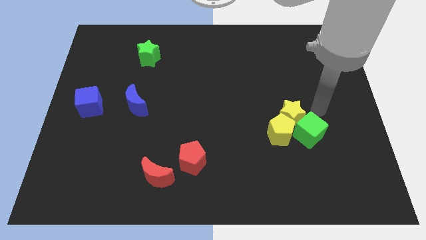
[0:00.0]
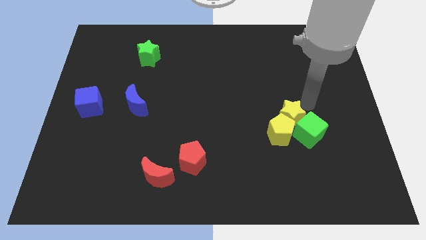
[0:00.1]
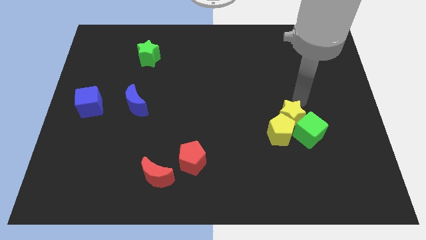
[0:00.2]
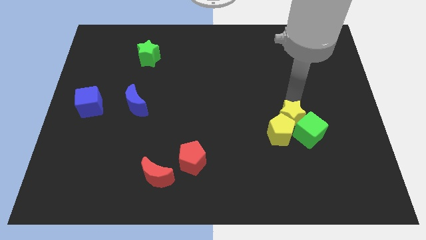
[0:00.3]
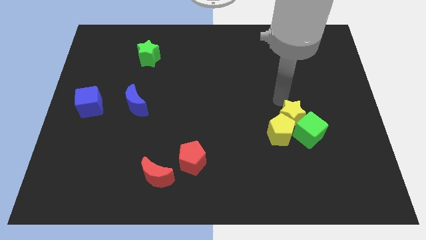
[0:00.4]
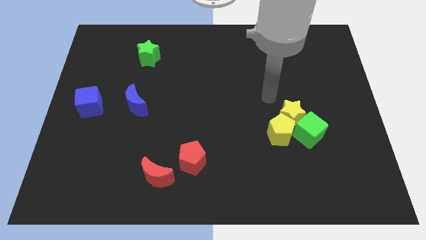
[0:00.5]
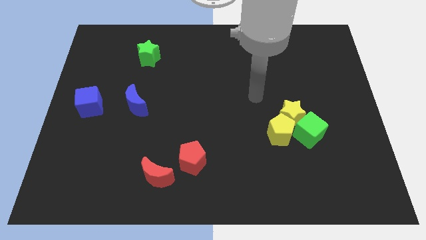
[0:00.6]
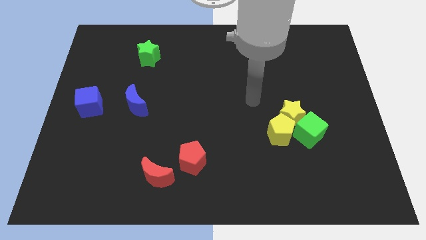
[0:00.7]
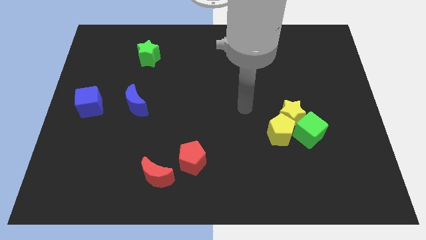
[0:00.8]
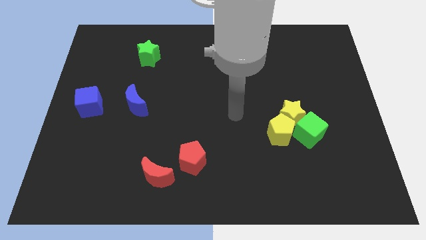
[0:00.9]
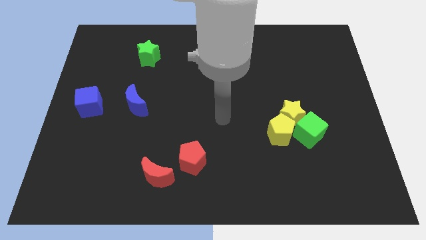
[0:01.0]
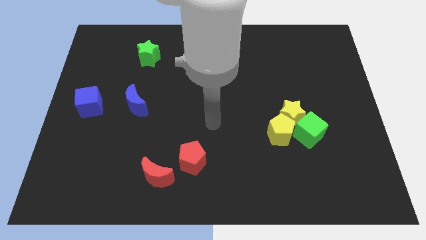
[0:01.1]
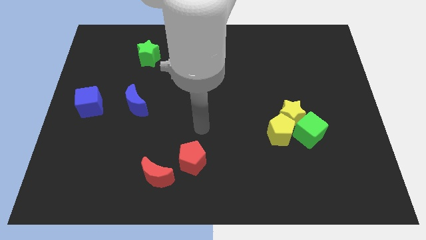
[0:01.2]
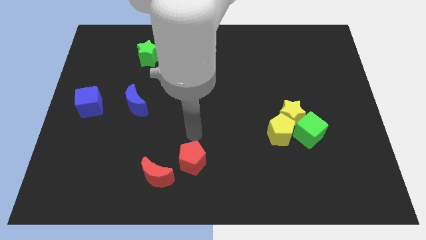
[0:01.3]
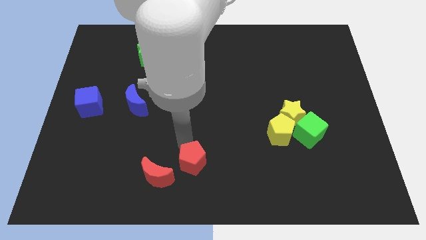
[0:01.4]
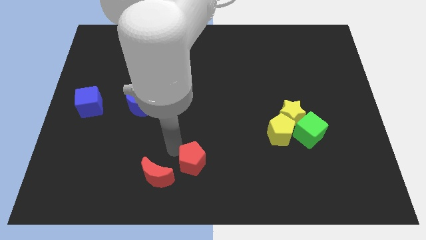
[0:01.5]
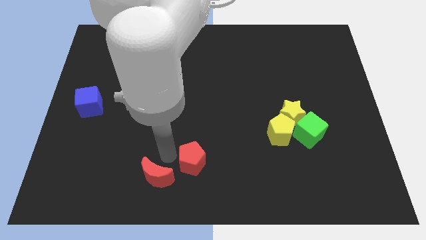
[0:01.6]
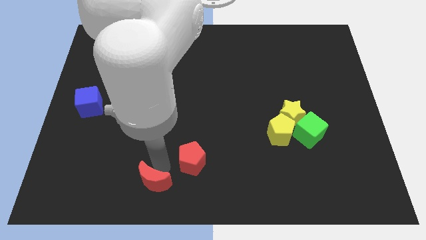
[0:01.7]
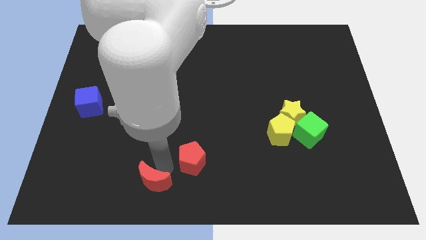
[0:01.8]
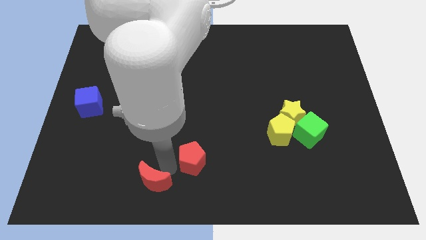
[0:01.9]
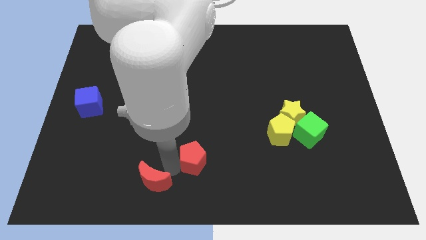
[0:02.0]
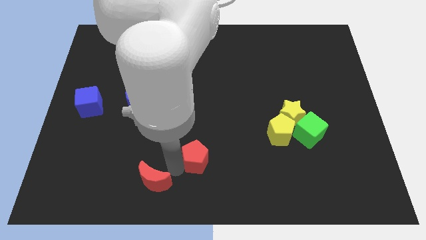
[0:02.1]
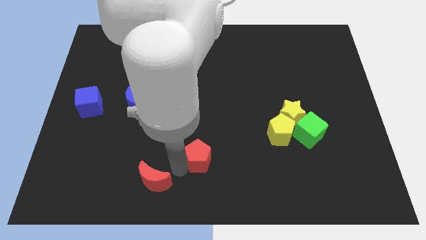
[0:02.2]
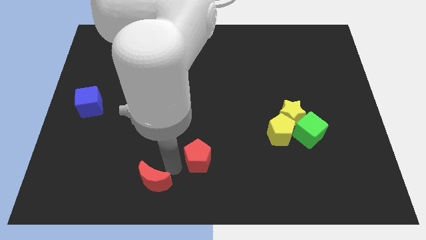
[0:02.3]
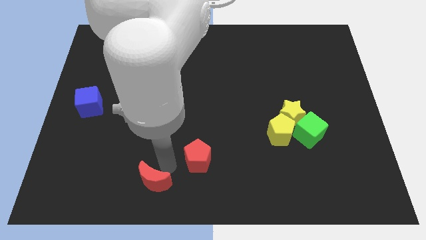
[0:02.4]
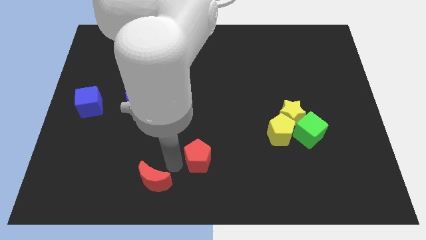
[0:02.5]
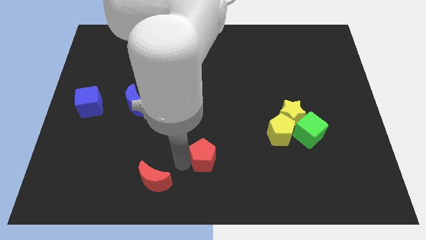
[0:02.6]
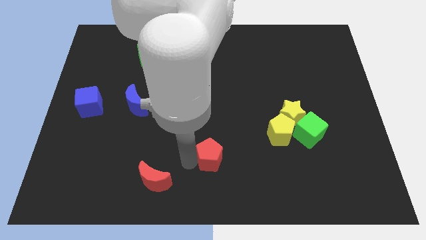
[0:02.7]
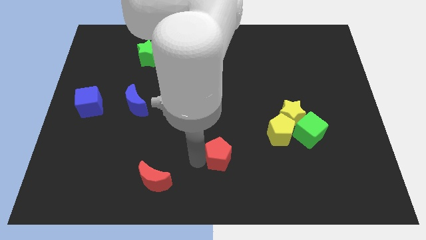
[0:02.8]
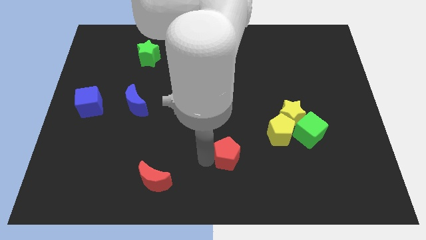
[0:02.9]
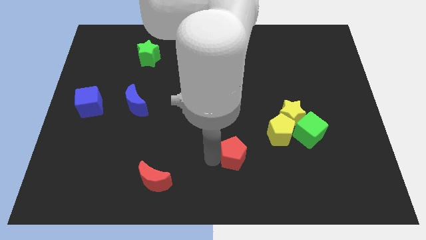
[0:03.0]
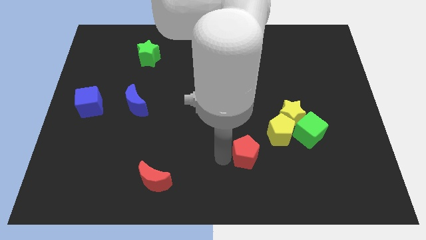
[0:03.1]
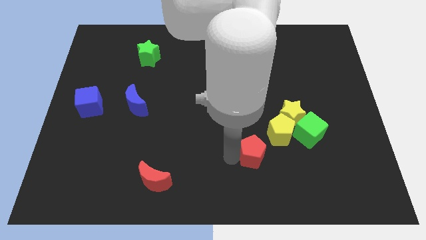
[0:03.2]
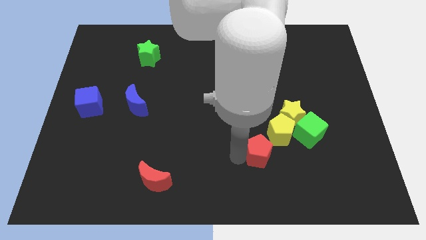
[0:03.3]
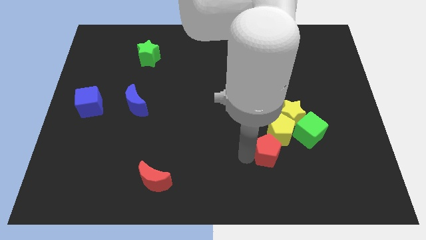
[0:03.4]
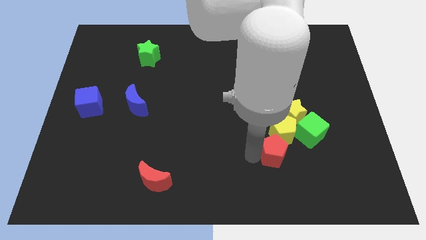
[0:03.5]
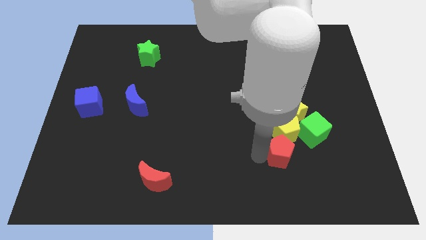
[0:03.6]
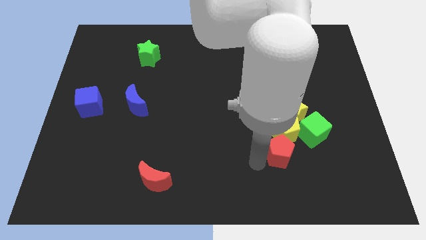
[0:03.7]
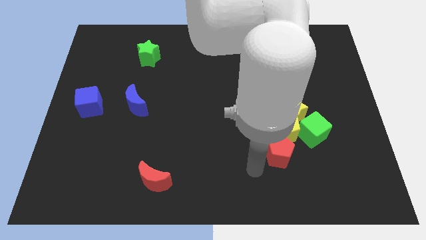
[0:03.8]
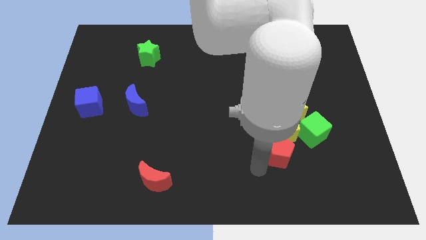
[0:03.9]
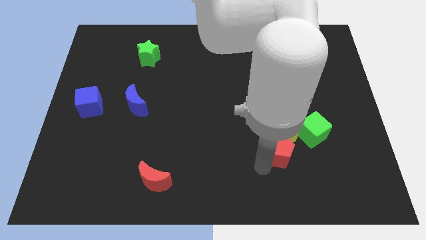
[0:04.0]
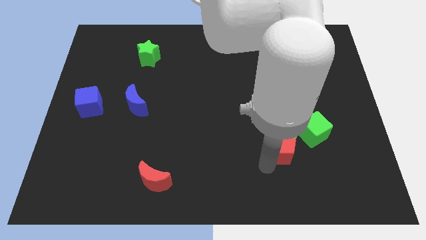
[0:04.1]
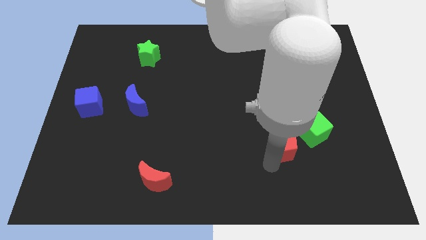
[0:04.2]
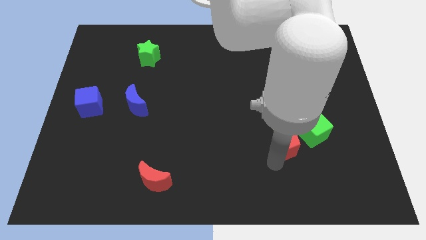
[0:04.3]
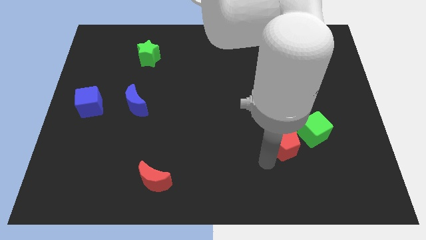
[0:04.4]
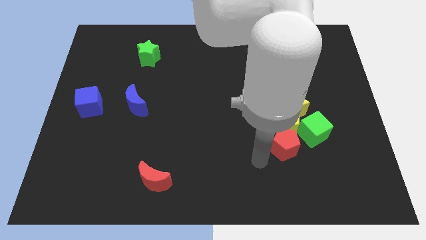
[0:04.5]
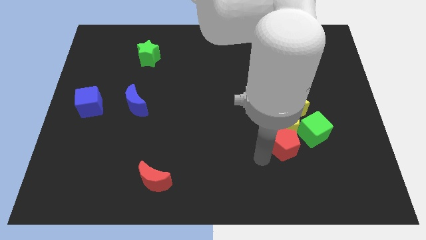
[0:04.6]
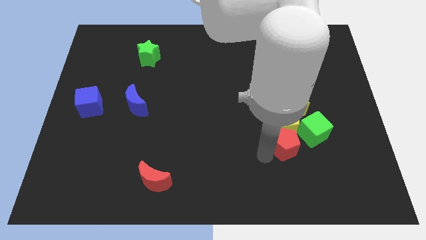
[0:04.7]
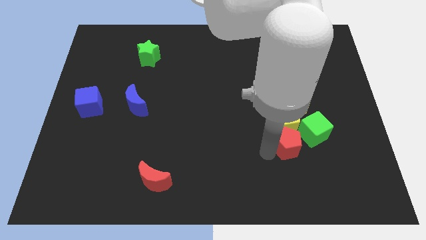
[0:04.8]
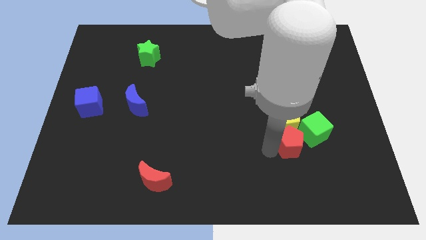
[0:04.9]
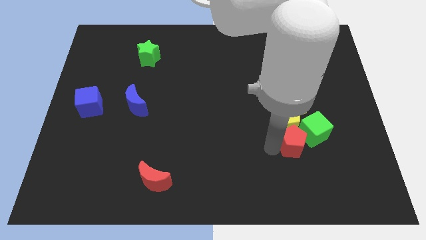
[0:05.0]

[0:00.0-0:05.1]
put the red pentagon to the green cube

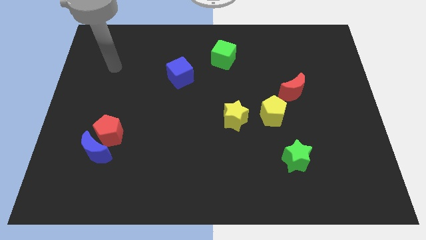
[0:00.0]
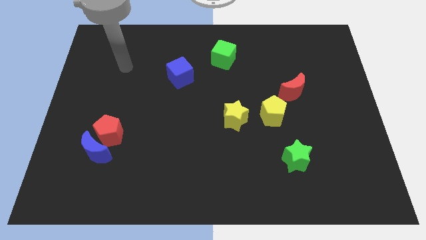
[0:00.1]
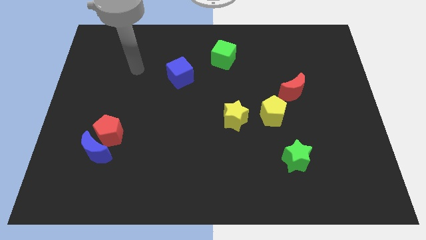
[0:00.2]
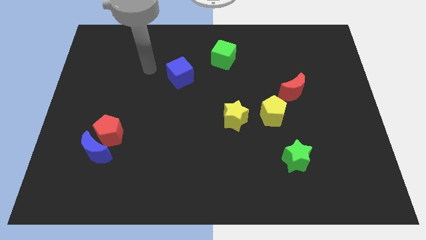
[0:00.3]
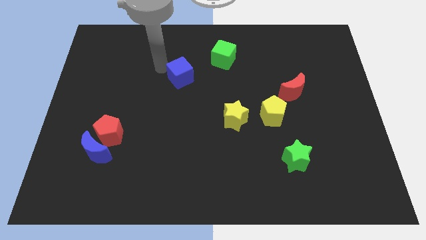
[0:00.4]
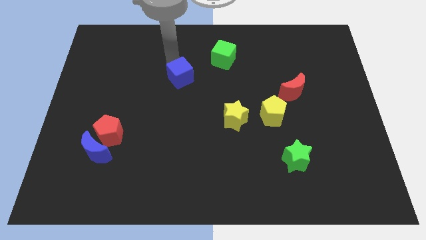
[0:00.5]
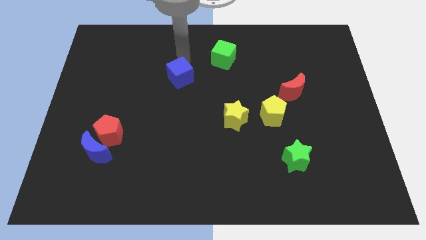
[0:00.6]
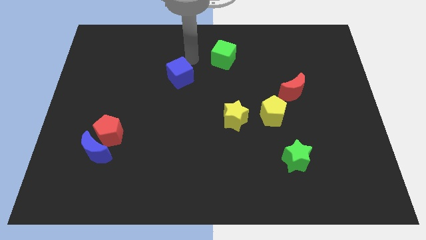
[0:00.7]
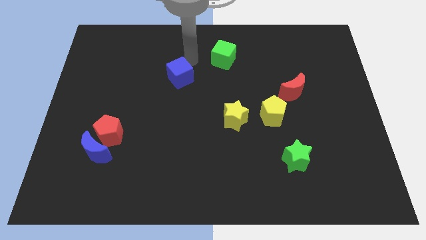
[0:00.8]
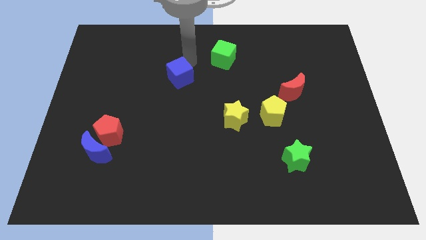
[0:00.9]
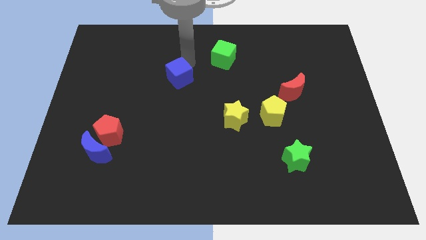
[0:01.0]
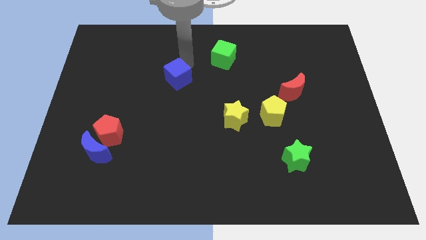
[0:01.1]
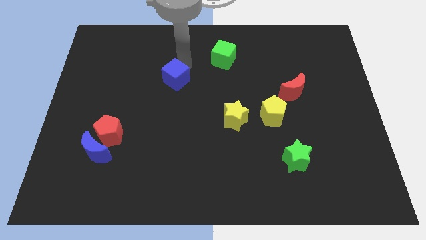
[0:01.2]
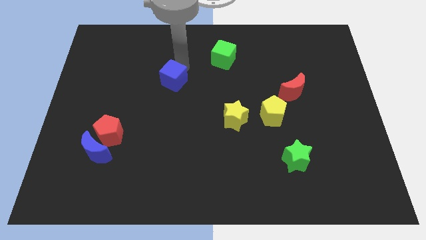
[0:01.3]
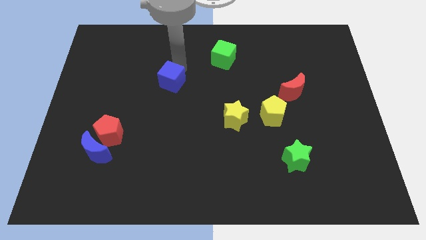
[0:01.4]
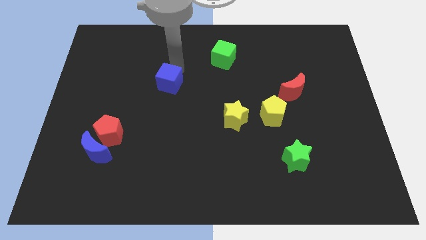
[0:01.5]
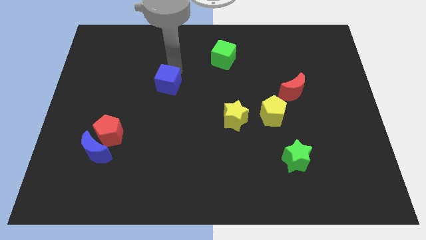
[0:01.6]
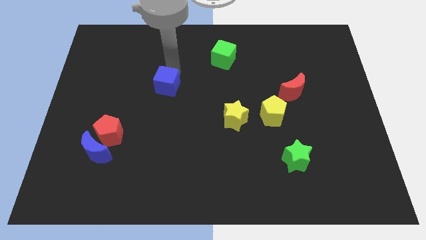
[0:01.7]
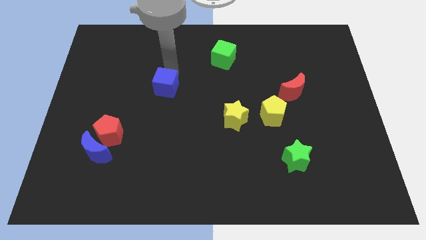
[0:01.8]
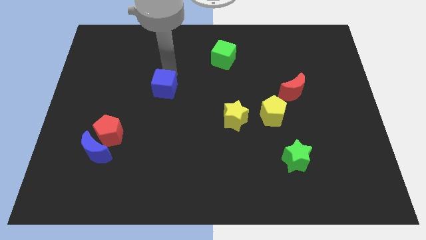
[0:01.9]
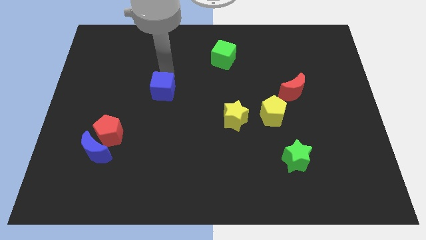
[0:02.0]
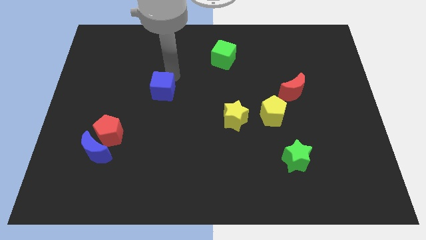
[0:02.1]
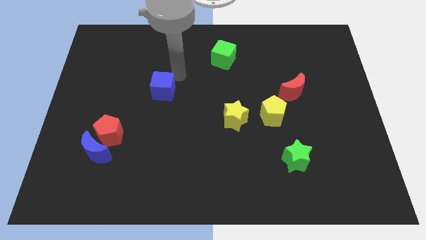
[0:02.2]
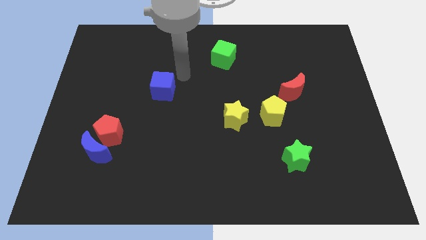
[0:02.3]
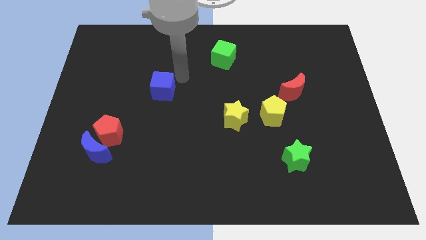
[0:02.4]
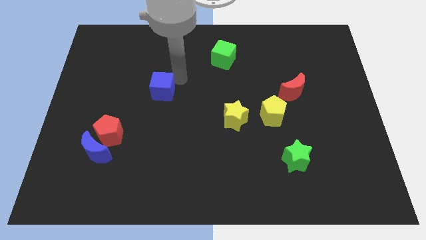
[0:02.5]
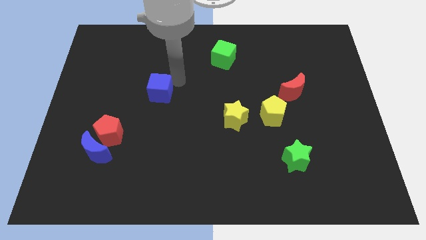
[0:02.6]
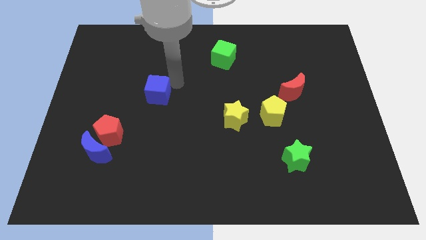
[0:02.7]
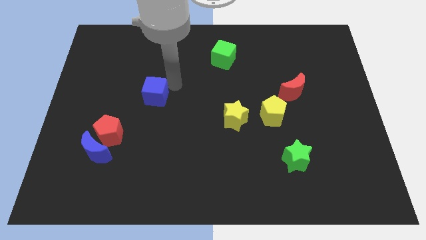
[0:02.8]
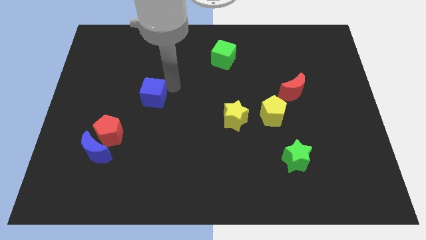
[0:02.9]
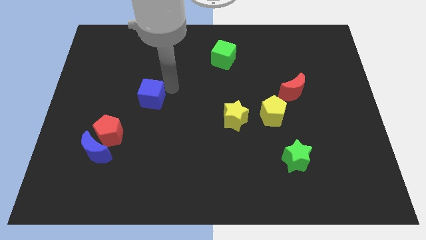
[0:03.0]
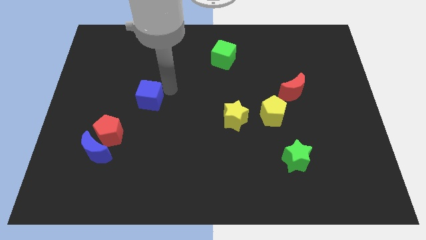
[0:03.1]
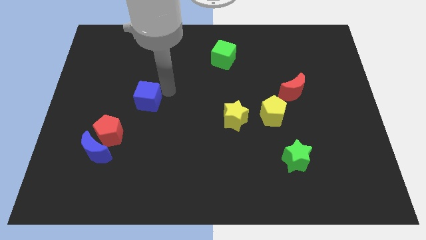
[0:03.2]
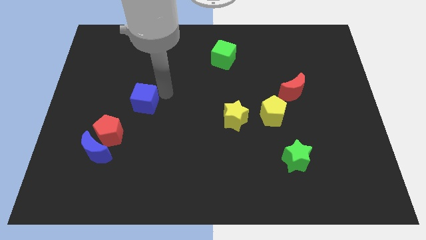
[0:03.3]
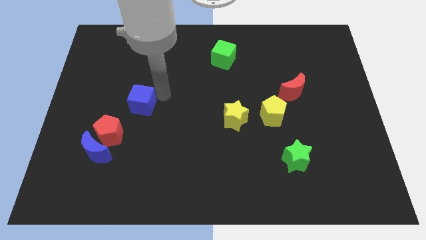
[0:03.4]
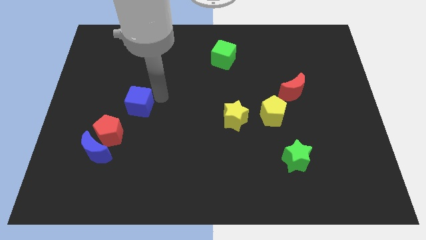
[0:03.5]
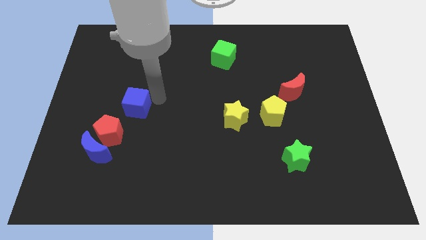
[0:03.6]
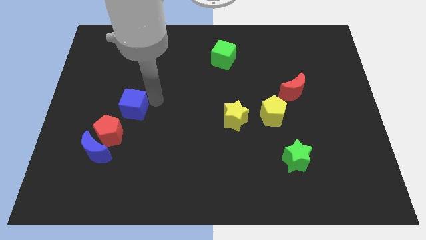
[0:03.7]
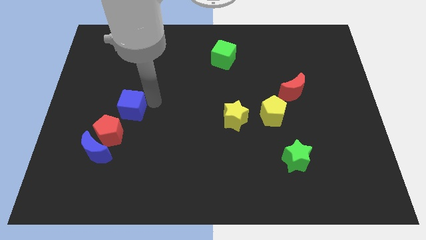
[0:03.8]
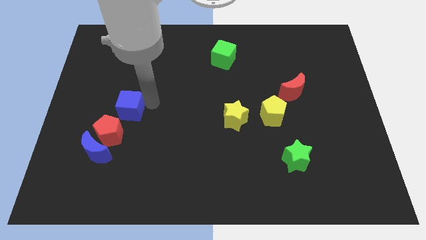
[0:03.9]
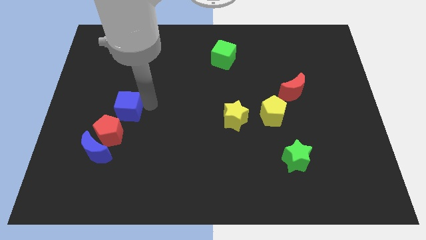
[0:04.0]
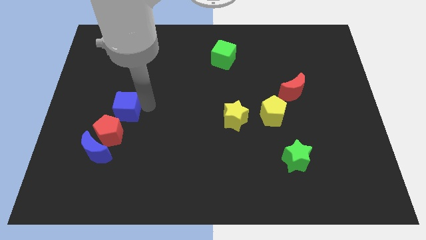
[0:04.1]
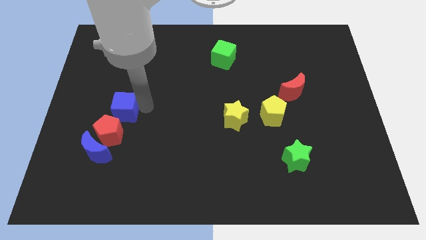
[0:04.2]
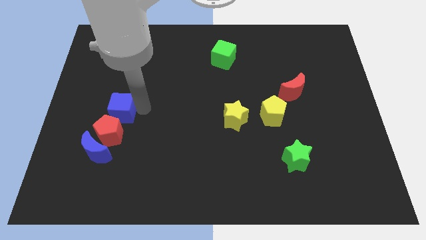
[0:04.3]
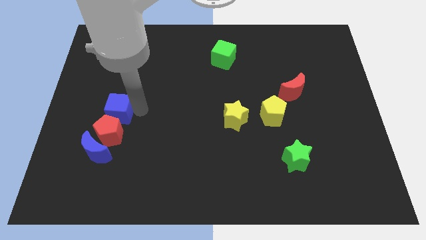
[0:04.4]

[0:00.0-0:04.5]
slide the blue cube close to the red pentagon
